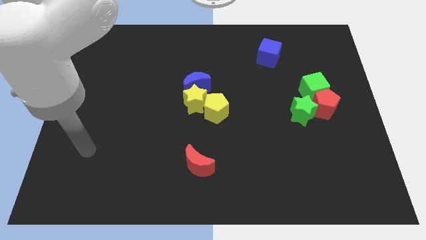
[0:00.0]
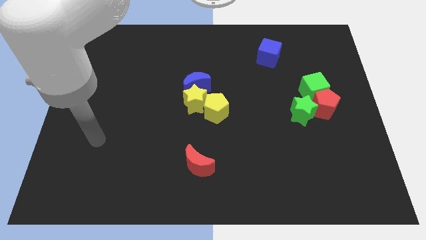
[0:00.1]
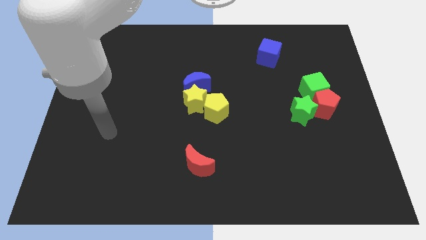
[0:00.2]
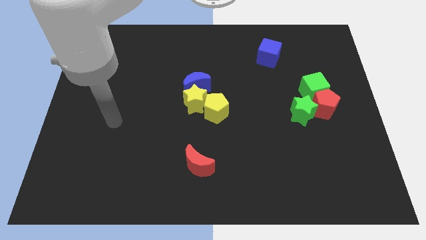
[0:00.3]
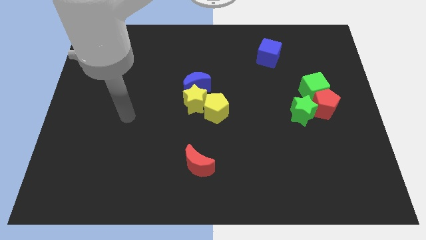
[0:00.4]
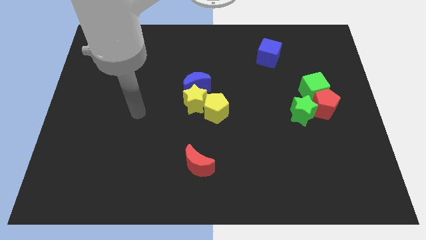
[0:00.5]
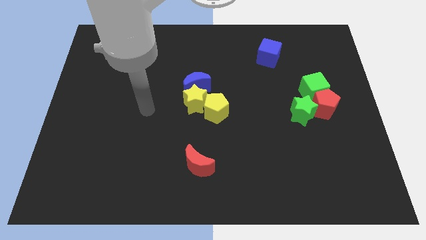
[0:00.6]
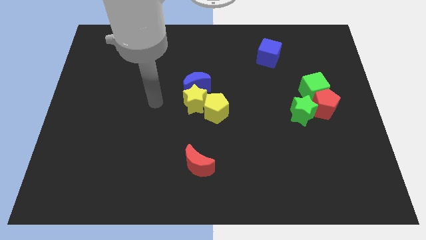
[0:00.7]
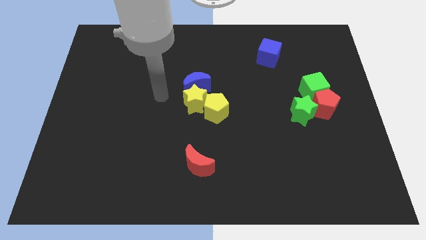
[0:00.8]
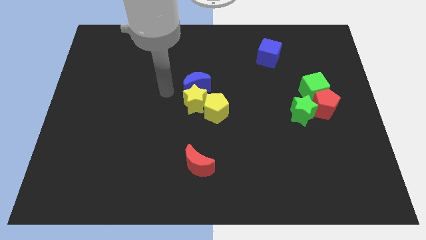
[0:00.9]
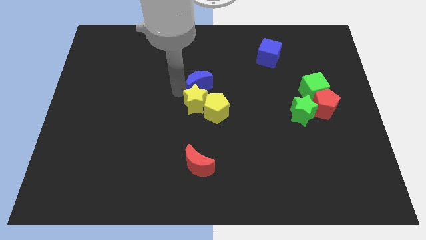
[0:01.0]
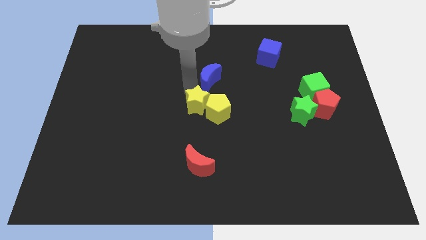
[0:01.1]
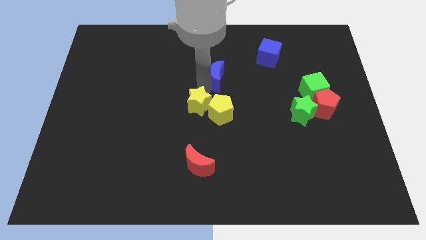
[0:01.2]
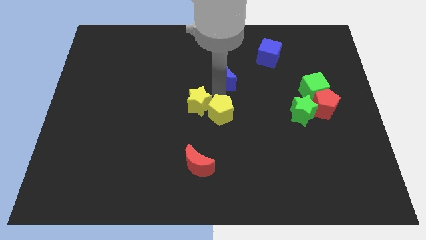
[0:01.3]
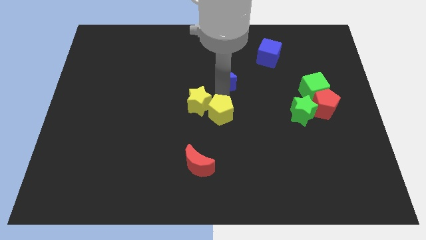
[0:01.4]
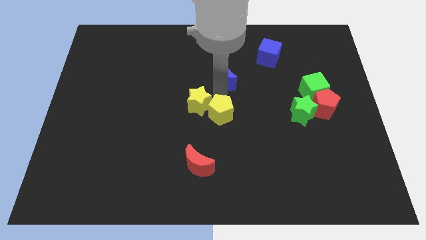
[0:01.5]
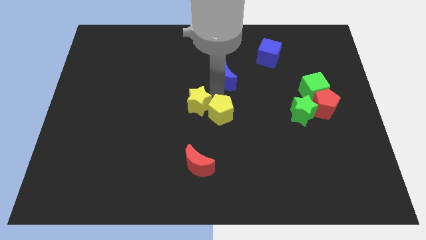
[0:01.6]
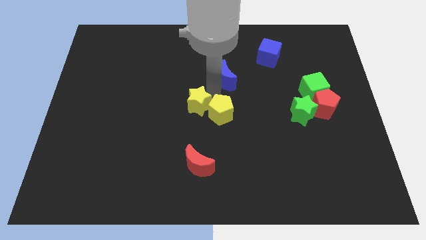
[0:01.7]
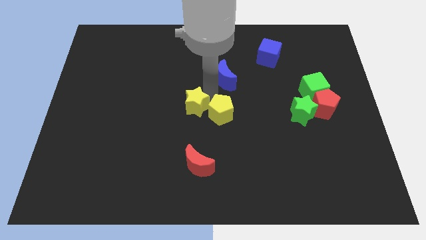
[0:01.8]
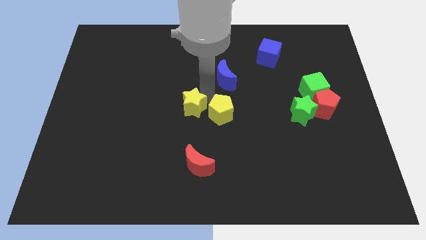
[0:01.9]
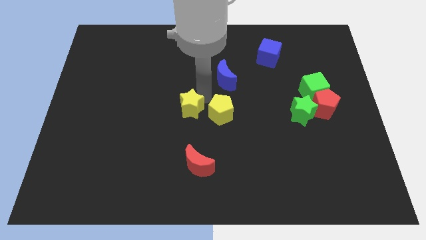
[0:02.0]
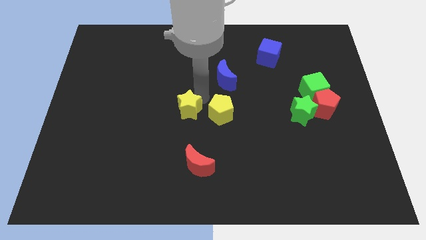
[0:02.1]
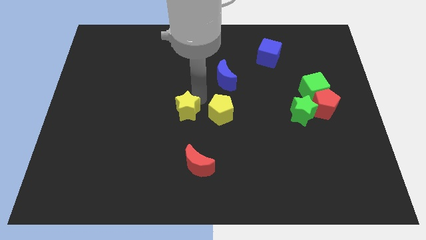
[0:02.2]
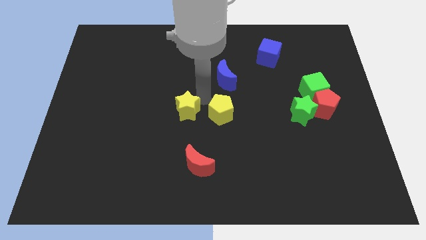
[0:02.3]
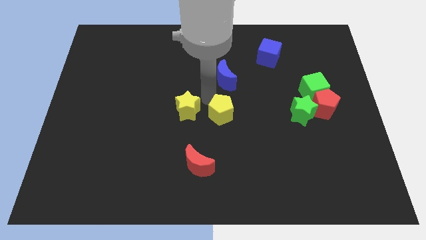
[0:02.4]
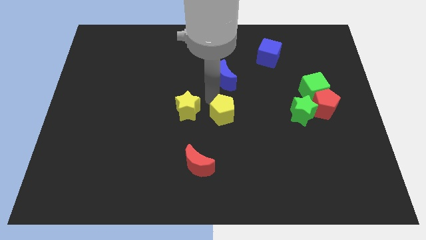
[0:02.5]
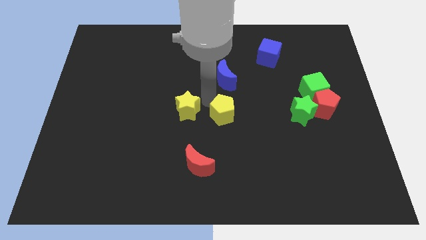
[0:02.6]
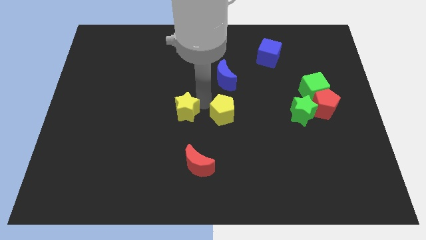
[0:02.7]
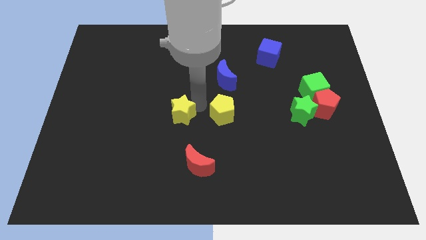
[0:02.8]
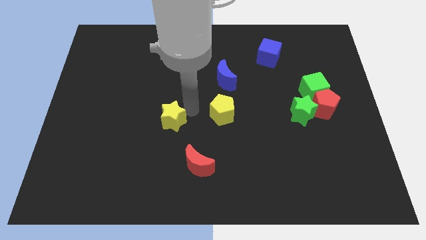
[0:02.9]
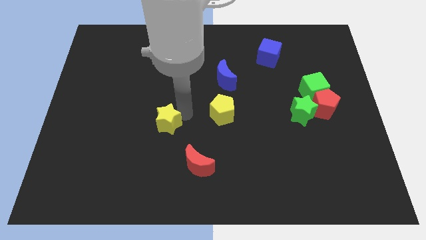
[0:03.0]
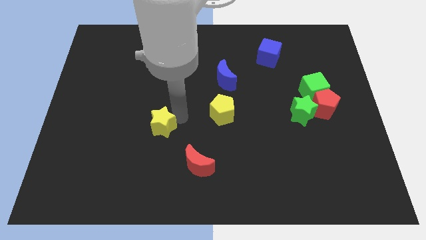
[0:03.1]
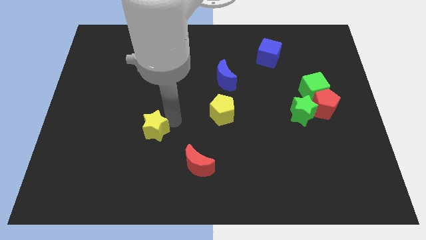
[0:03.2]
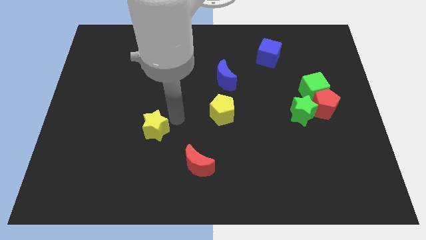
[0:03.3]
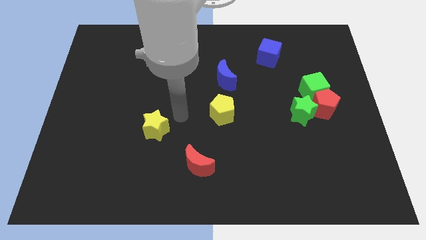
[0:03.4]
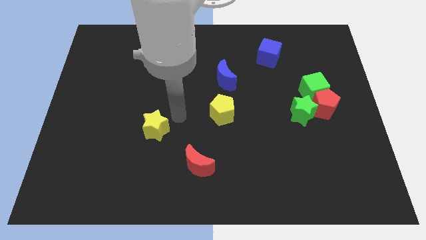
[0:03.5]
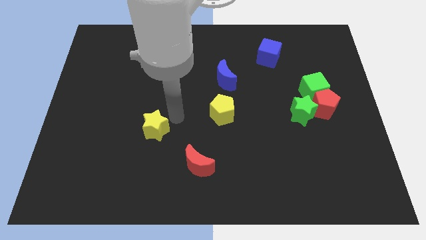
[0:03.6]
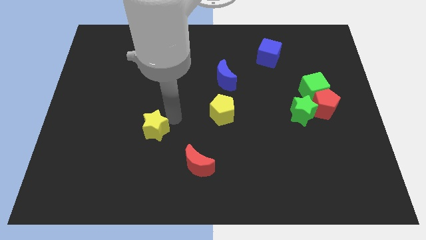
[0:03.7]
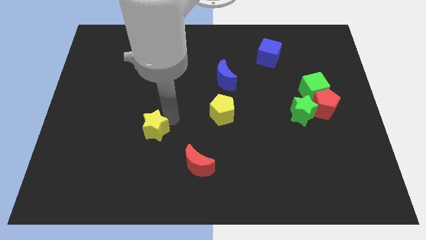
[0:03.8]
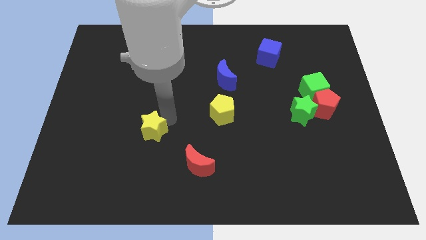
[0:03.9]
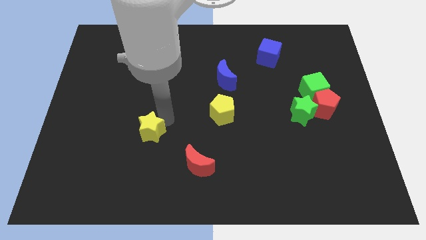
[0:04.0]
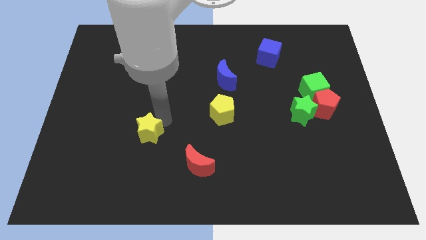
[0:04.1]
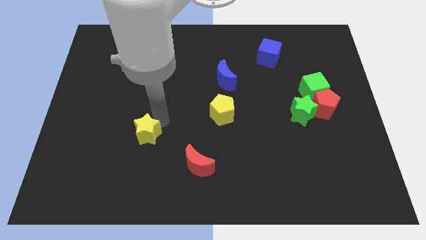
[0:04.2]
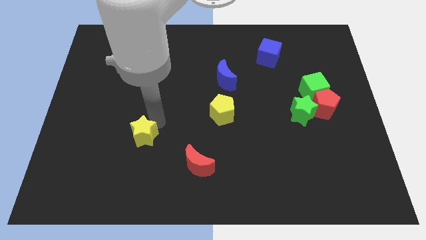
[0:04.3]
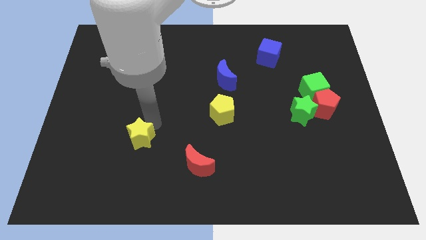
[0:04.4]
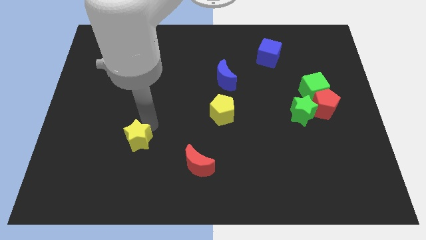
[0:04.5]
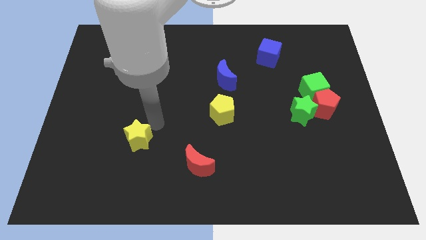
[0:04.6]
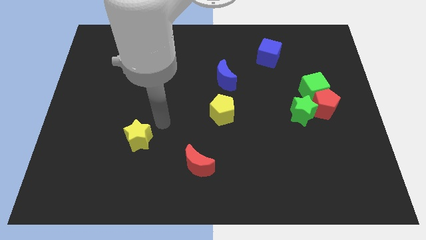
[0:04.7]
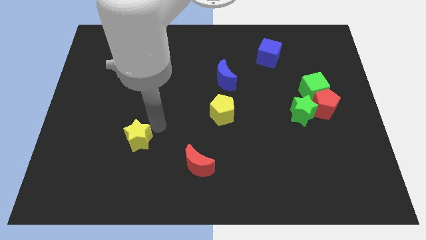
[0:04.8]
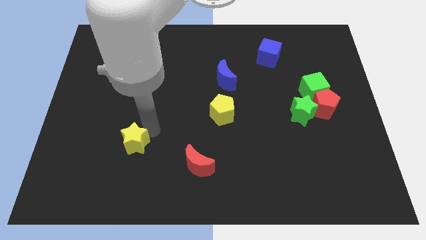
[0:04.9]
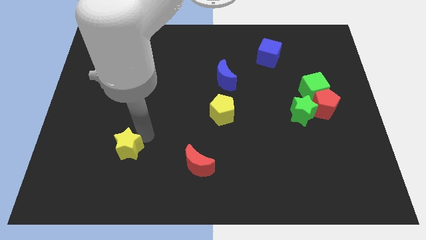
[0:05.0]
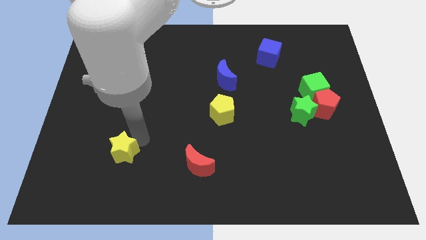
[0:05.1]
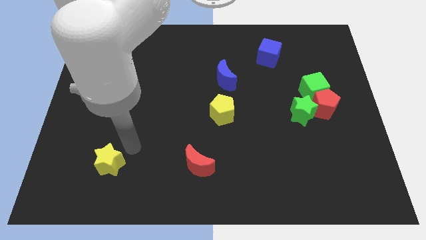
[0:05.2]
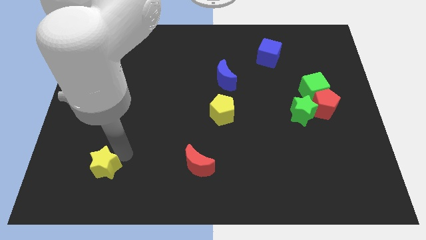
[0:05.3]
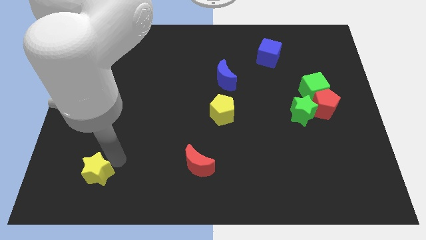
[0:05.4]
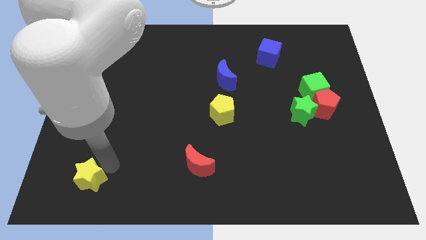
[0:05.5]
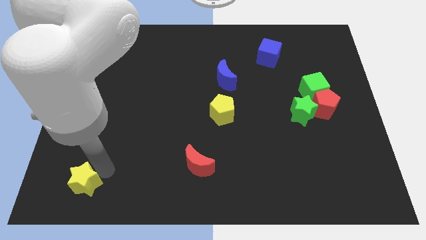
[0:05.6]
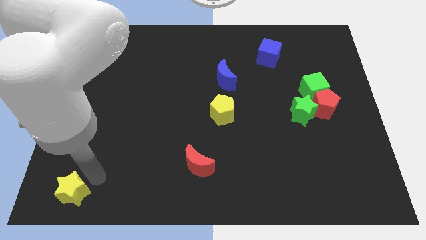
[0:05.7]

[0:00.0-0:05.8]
move the yellow star to the bottom left corner
